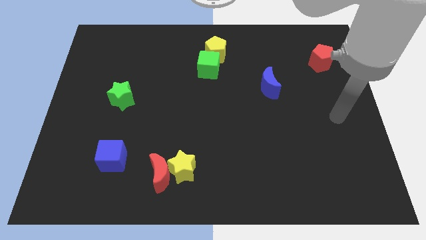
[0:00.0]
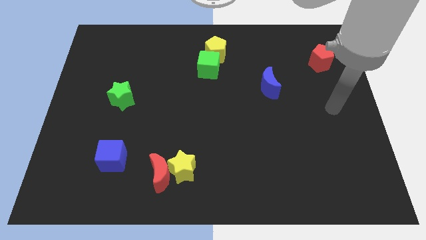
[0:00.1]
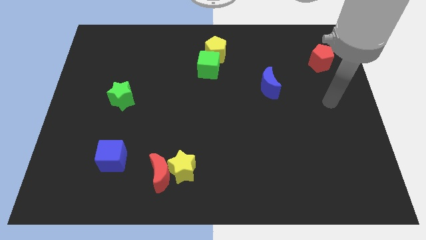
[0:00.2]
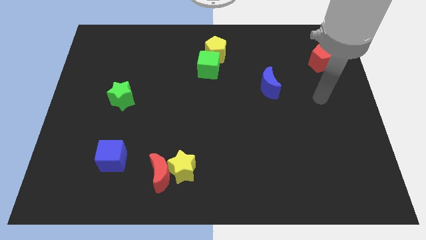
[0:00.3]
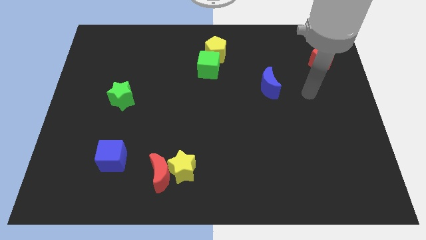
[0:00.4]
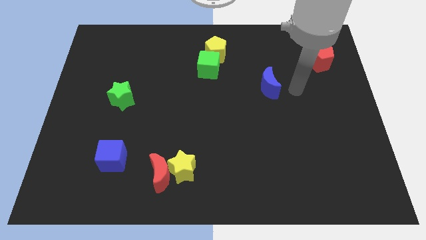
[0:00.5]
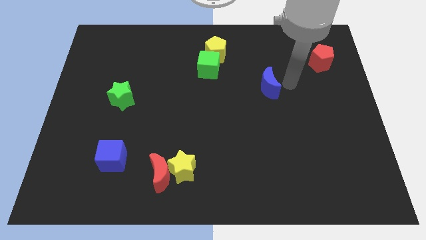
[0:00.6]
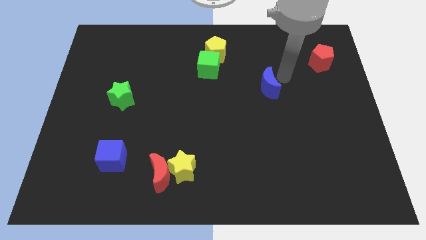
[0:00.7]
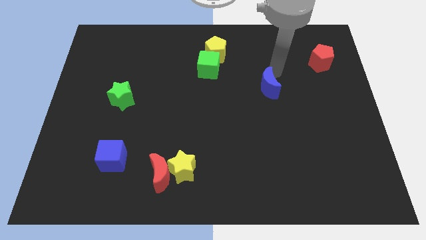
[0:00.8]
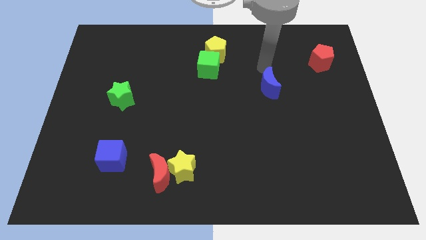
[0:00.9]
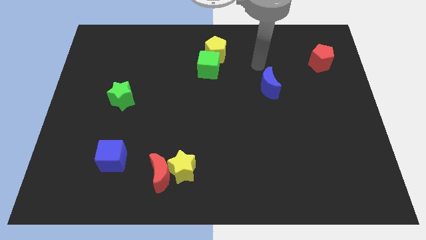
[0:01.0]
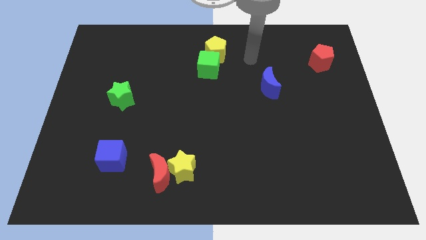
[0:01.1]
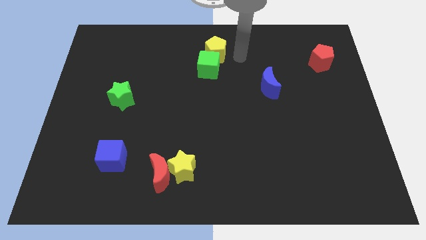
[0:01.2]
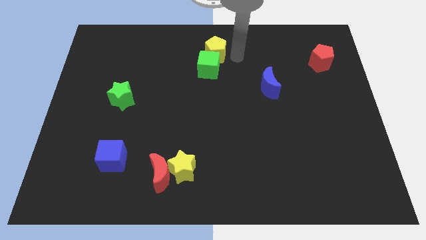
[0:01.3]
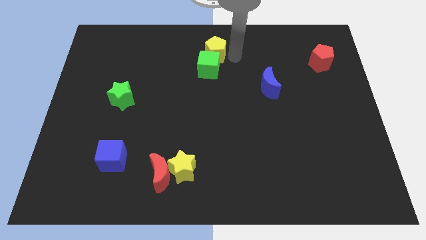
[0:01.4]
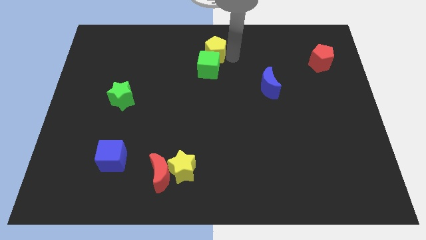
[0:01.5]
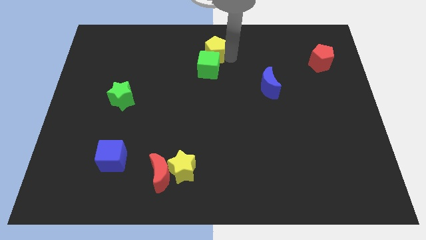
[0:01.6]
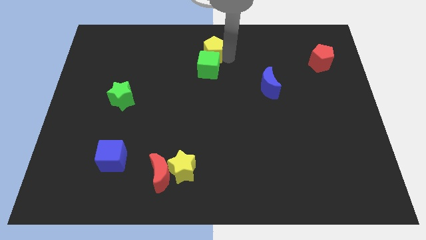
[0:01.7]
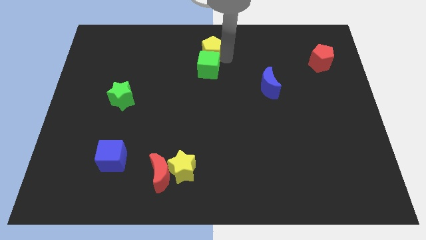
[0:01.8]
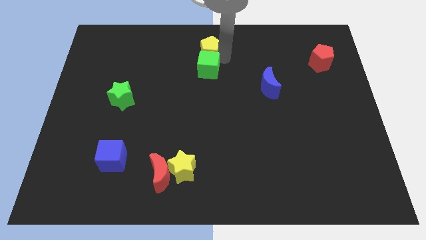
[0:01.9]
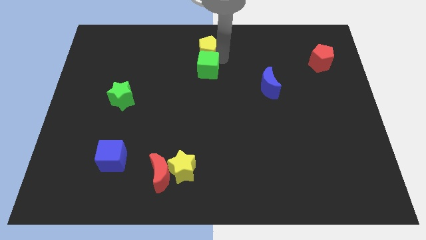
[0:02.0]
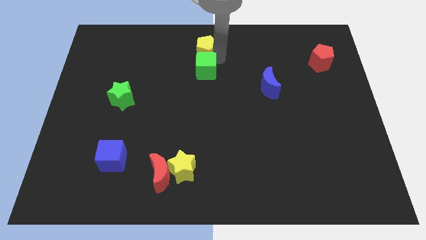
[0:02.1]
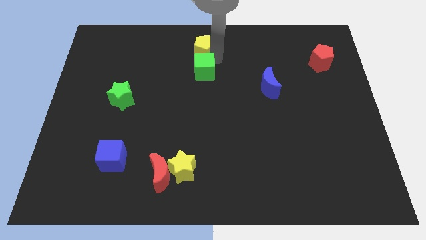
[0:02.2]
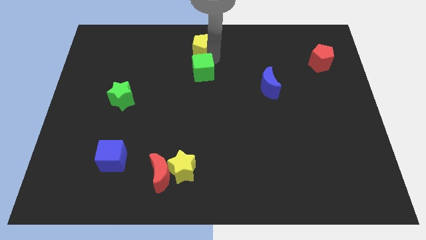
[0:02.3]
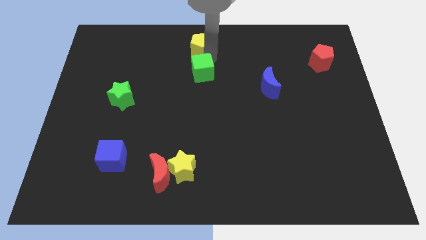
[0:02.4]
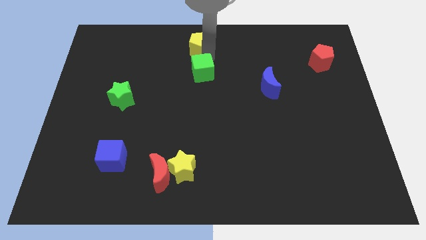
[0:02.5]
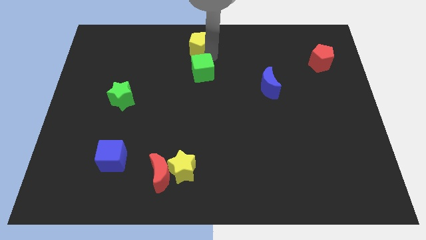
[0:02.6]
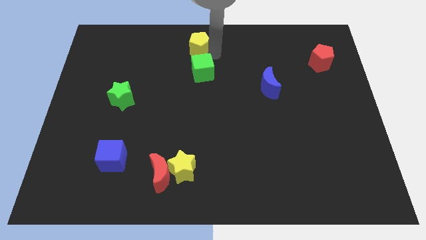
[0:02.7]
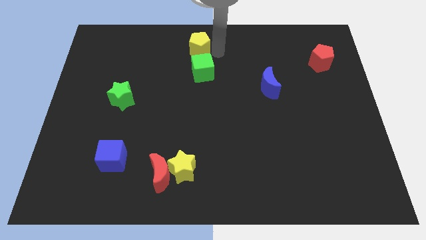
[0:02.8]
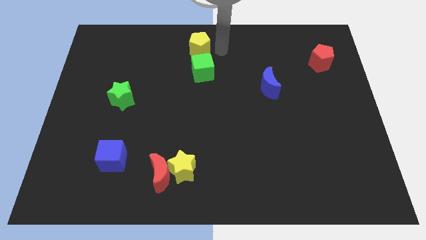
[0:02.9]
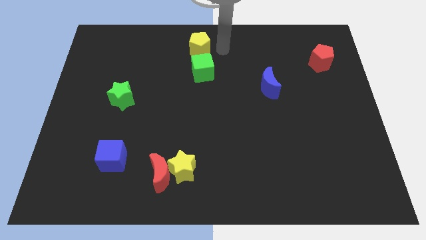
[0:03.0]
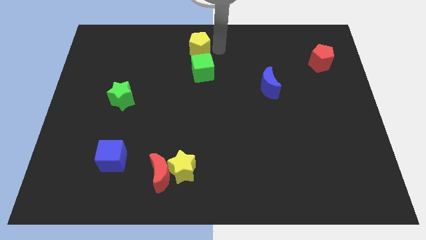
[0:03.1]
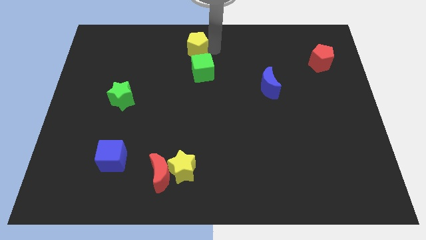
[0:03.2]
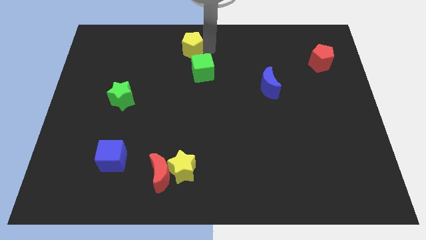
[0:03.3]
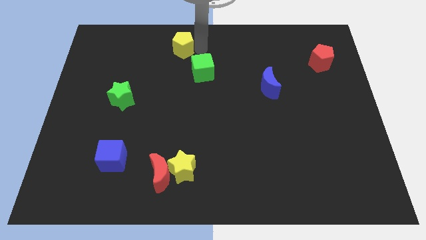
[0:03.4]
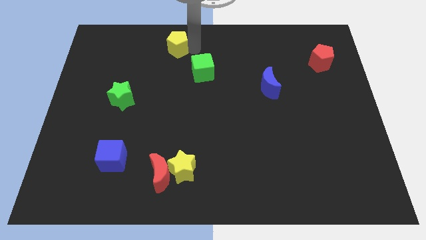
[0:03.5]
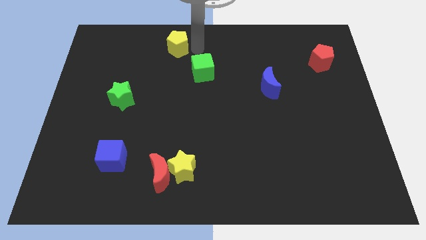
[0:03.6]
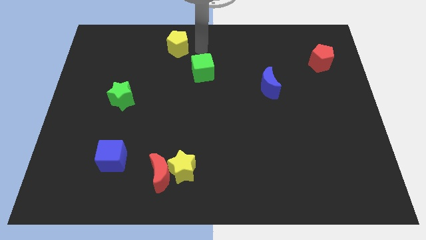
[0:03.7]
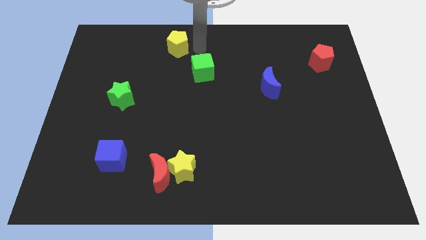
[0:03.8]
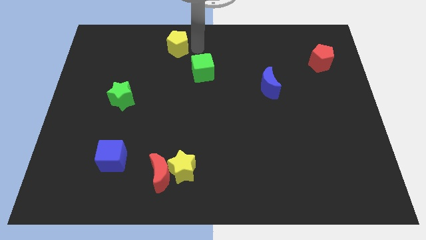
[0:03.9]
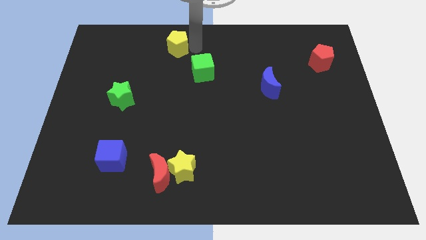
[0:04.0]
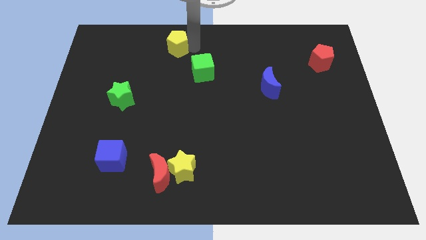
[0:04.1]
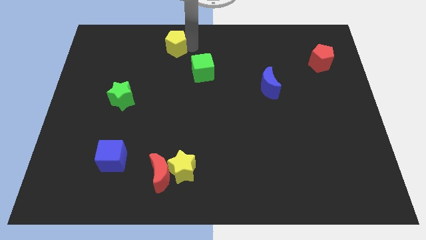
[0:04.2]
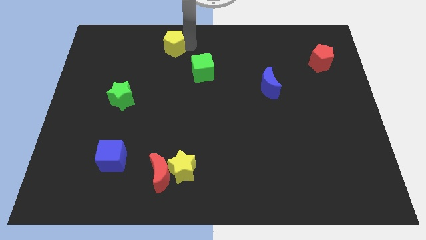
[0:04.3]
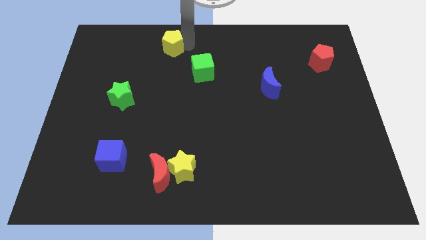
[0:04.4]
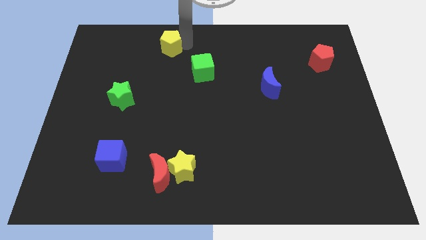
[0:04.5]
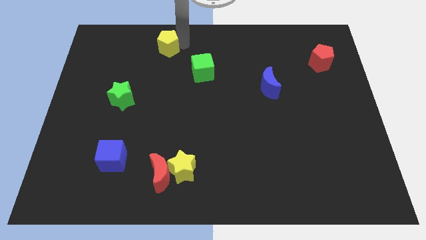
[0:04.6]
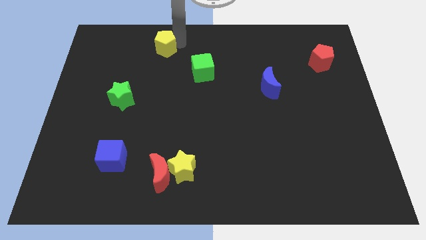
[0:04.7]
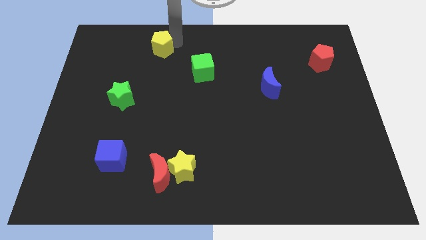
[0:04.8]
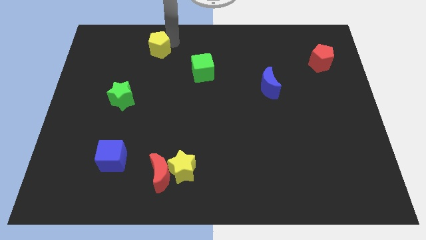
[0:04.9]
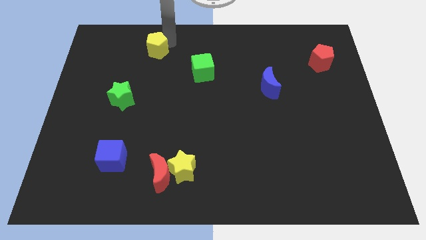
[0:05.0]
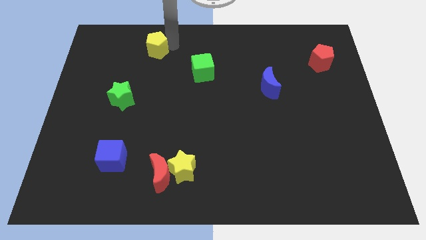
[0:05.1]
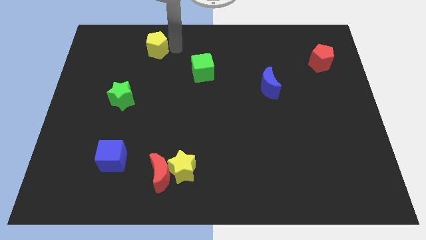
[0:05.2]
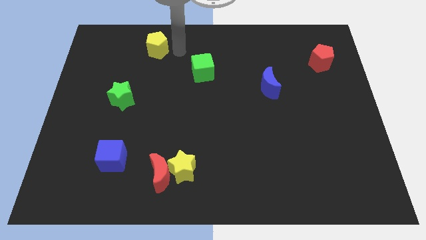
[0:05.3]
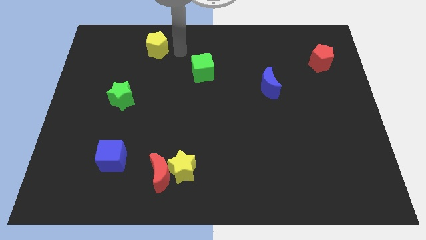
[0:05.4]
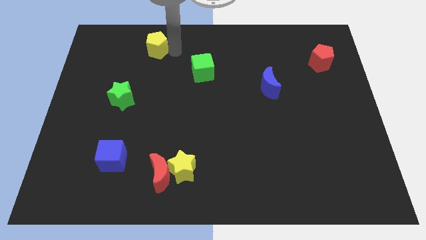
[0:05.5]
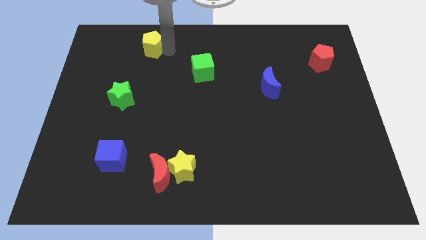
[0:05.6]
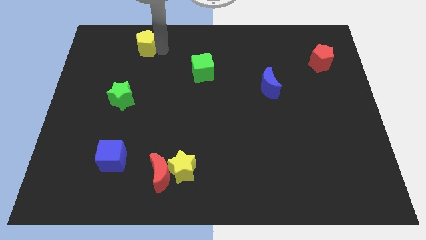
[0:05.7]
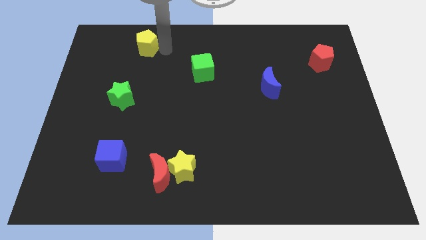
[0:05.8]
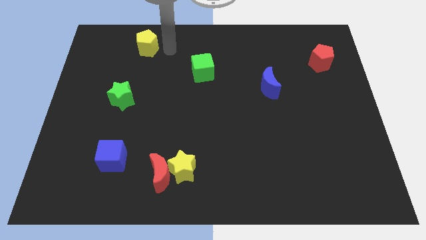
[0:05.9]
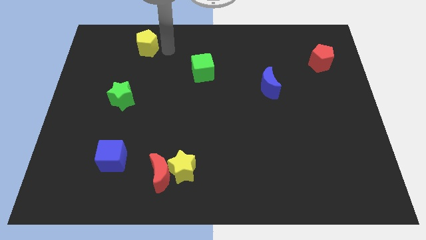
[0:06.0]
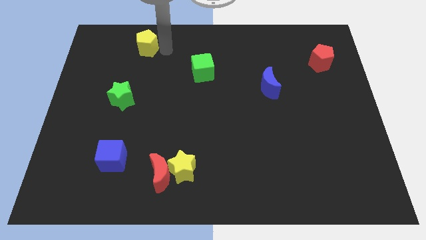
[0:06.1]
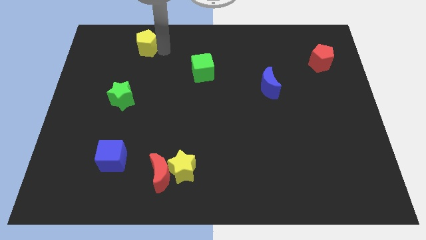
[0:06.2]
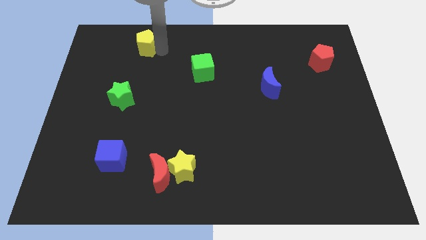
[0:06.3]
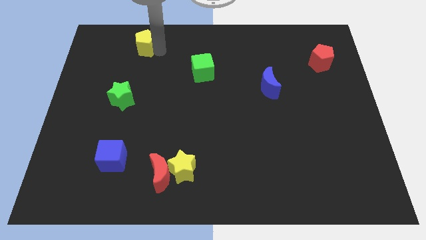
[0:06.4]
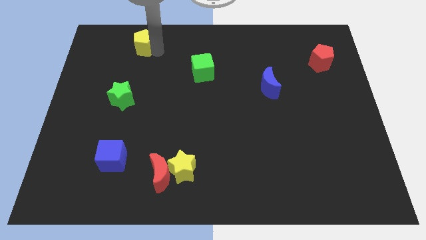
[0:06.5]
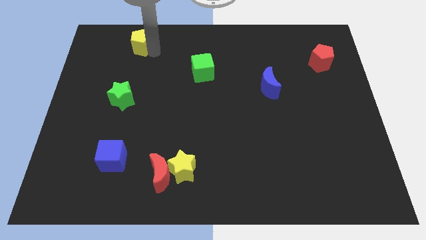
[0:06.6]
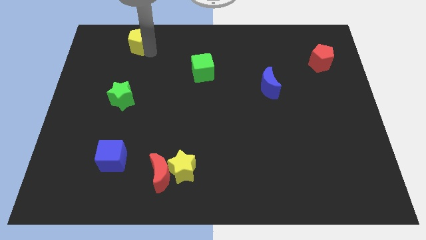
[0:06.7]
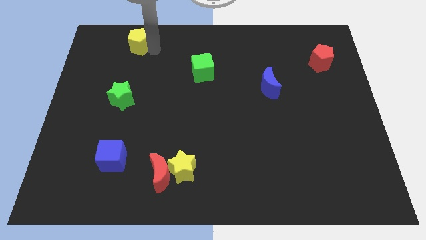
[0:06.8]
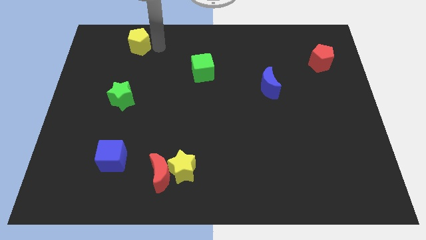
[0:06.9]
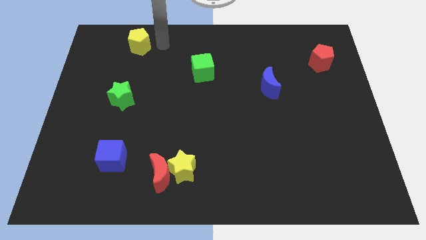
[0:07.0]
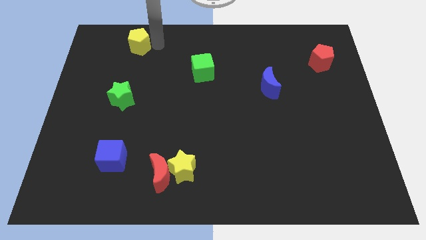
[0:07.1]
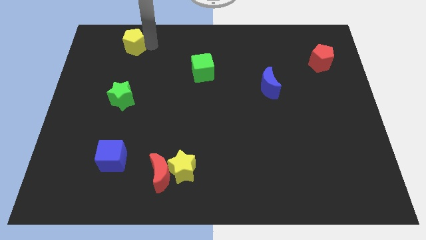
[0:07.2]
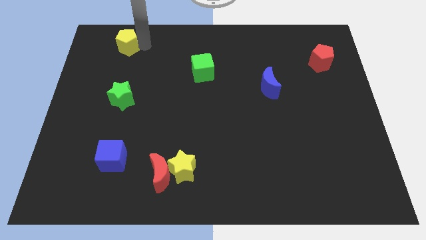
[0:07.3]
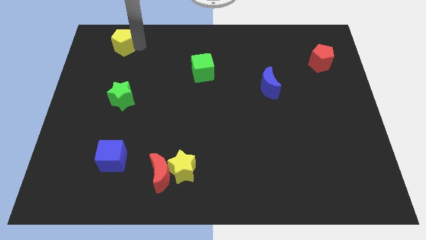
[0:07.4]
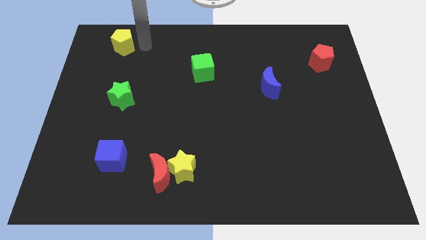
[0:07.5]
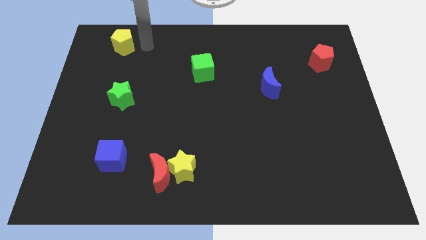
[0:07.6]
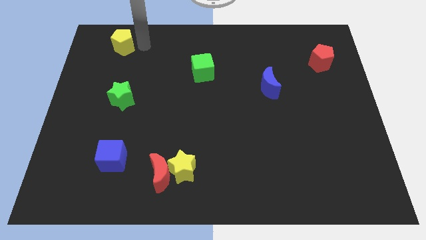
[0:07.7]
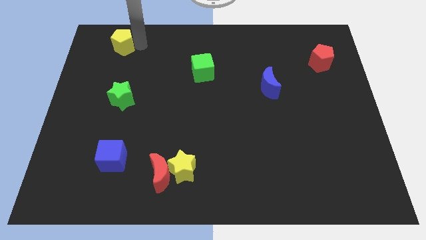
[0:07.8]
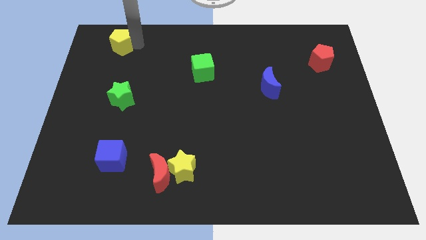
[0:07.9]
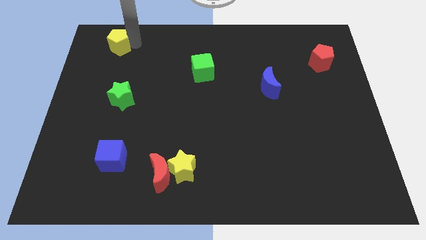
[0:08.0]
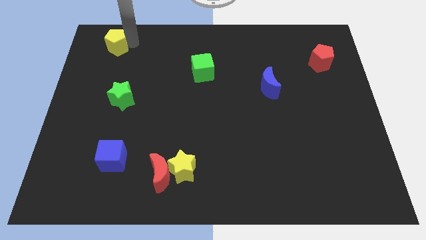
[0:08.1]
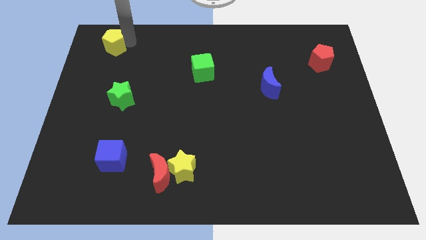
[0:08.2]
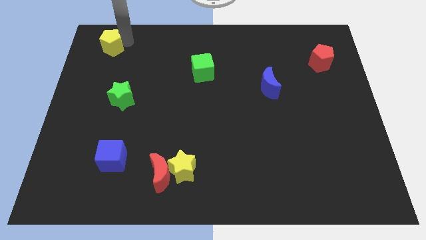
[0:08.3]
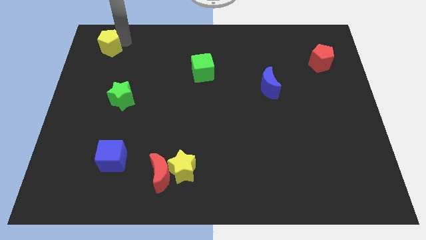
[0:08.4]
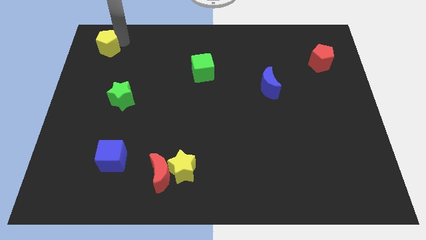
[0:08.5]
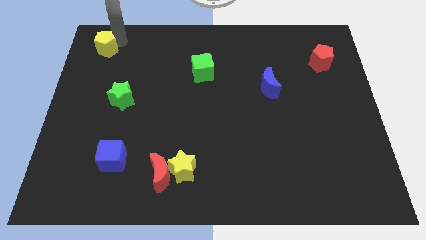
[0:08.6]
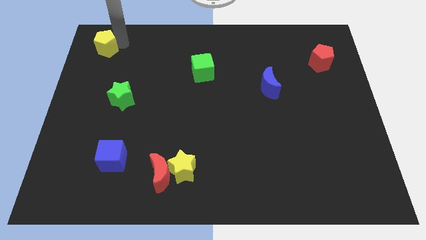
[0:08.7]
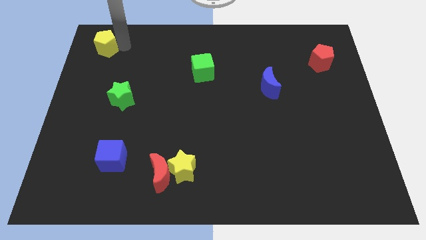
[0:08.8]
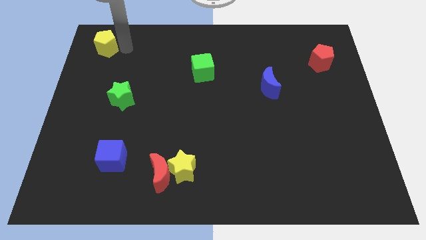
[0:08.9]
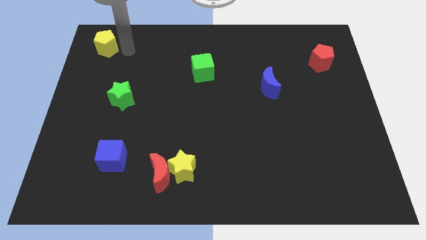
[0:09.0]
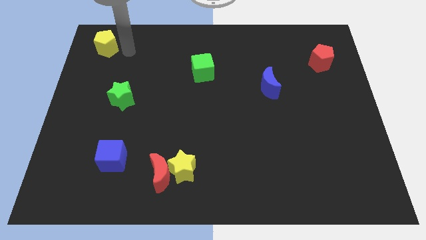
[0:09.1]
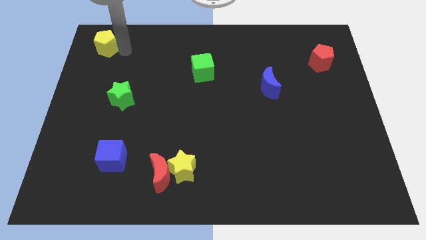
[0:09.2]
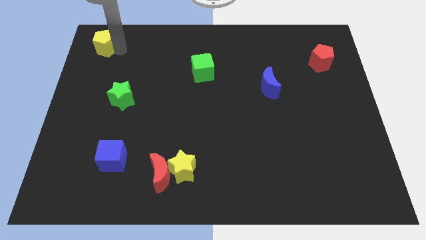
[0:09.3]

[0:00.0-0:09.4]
slide the yellow pentagon to the top left
